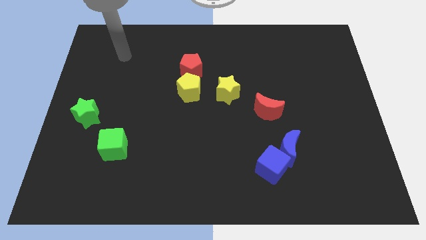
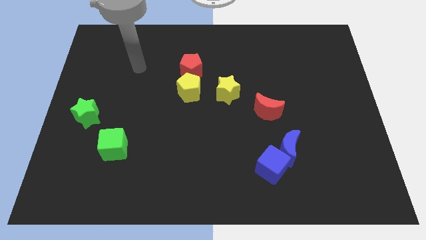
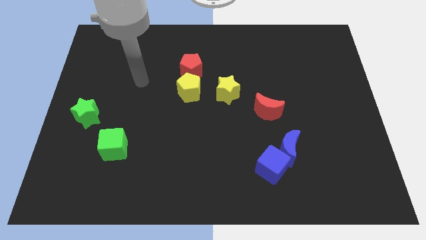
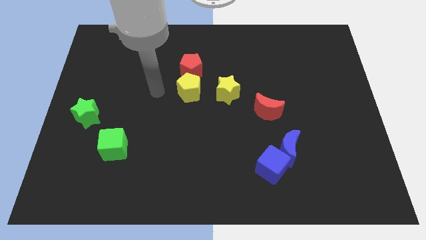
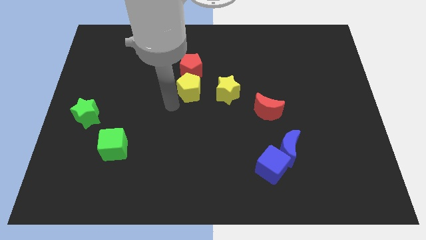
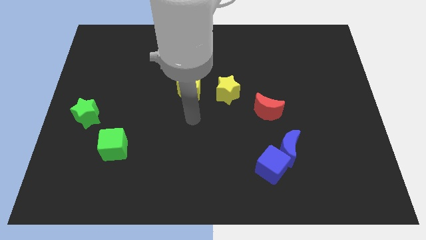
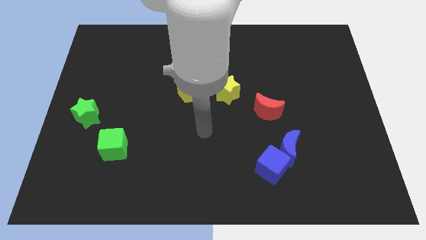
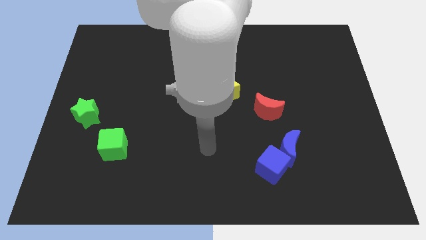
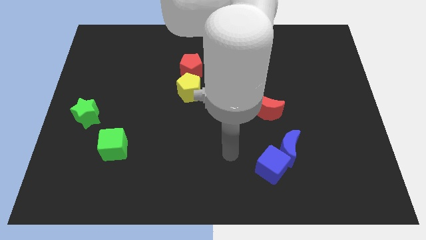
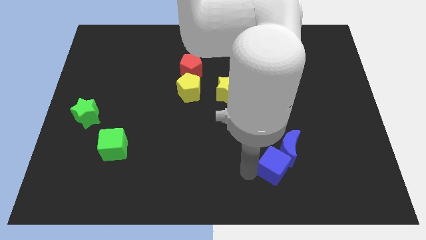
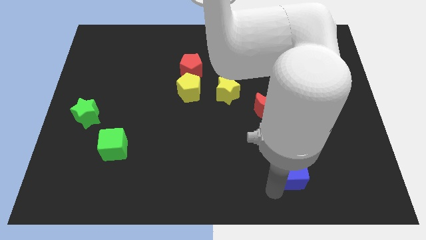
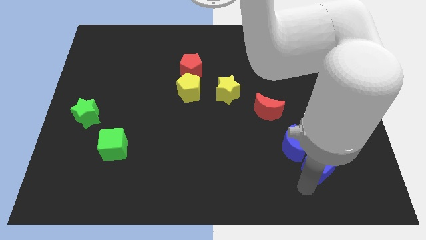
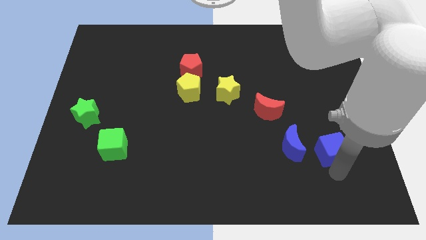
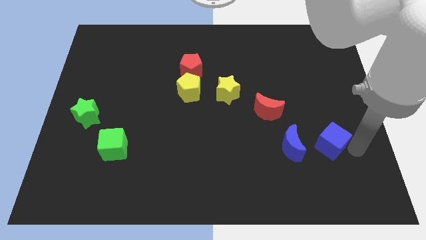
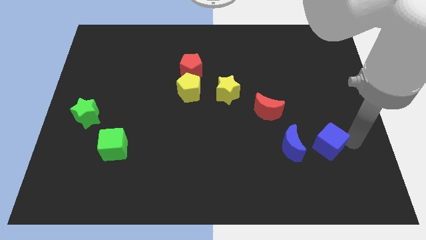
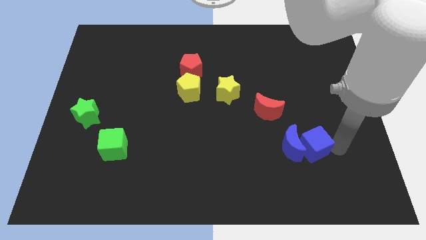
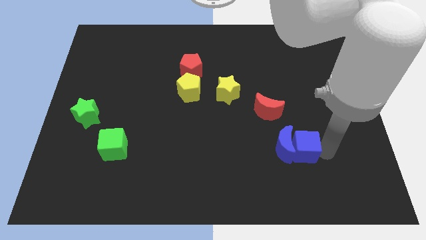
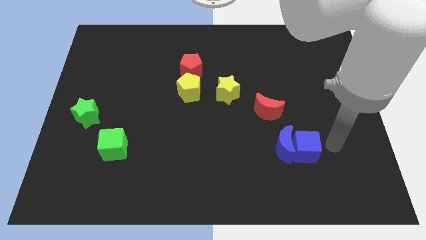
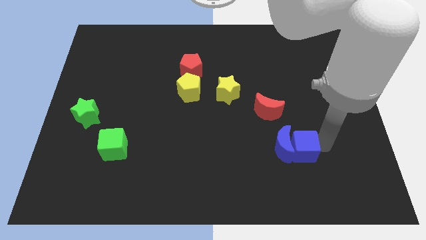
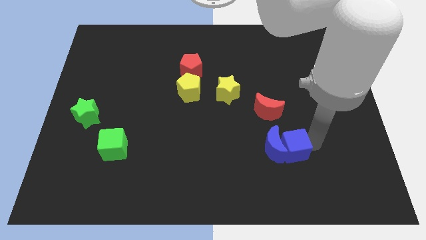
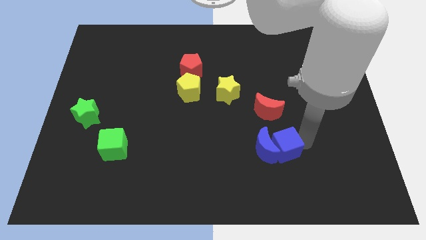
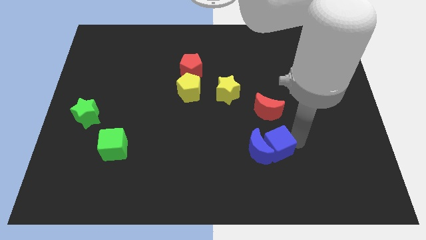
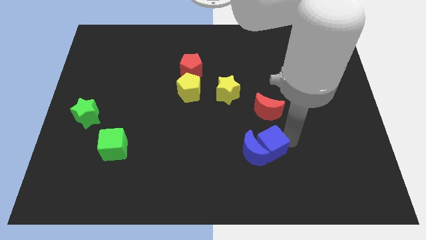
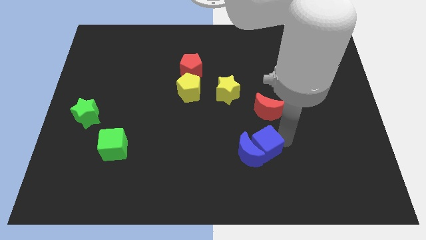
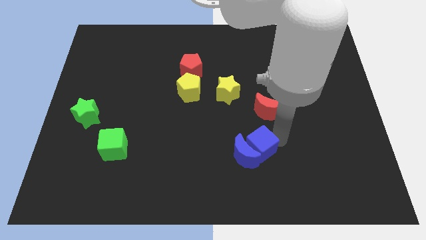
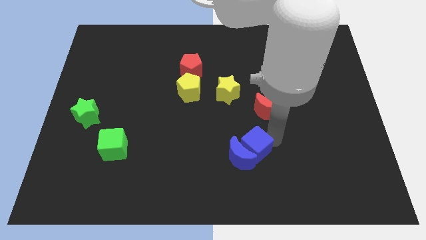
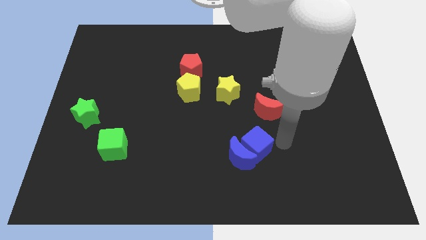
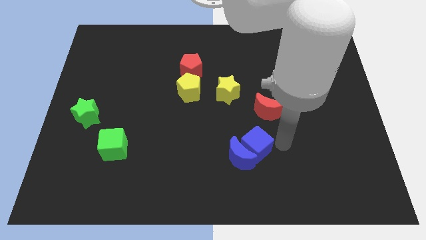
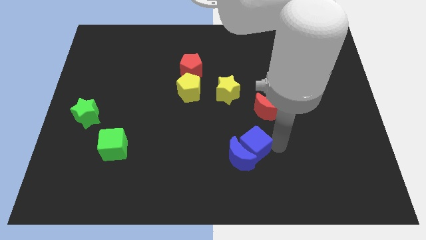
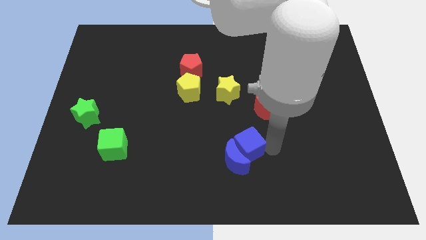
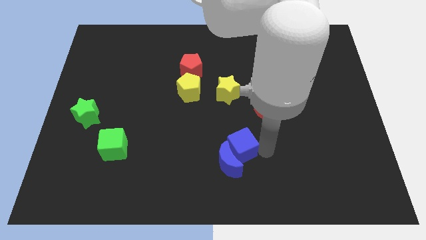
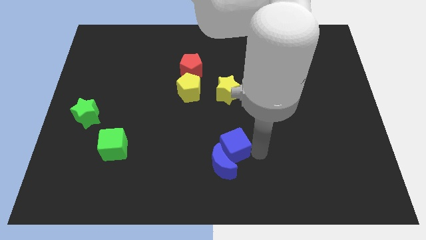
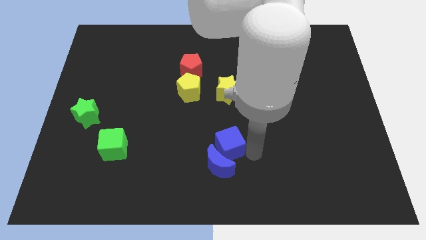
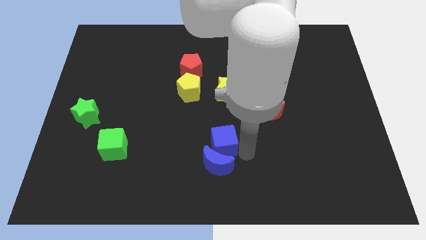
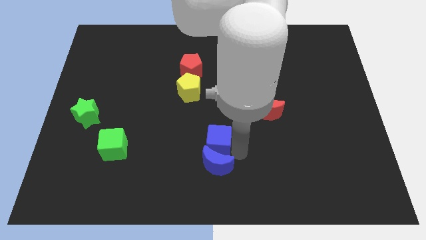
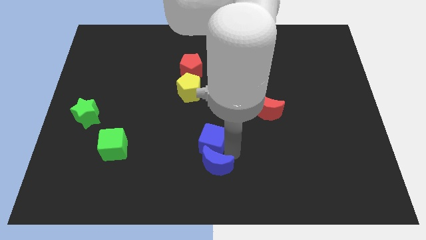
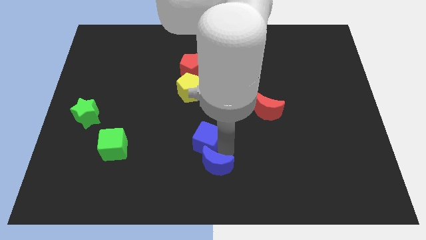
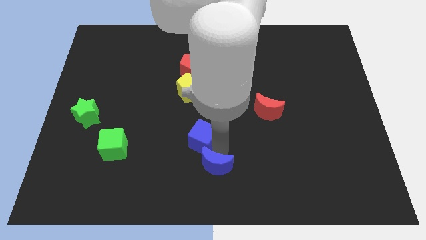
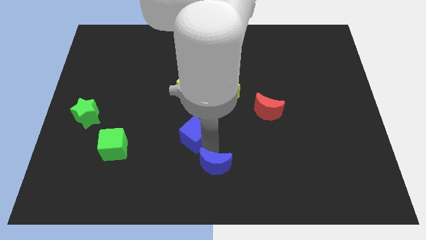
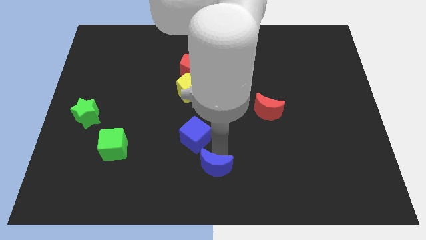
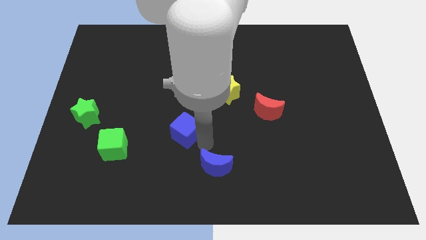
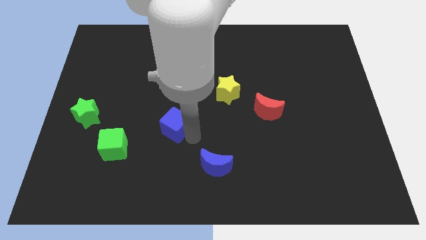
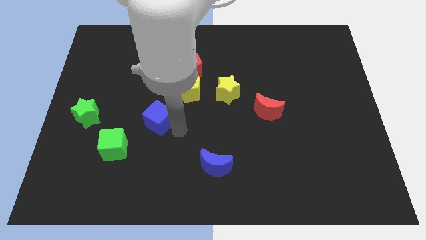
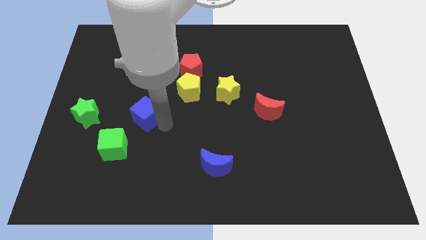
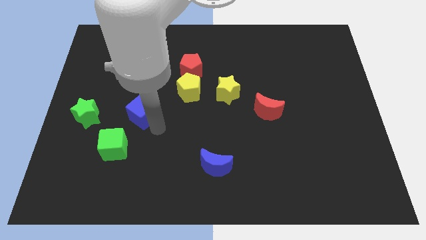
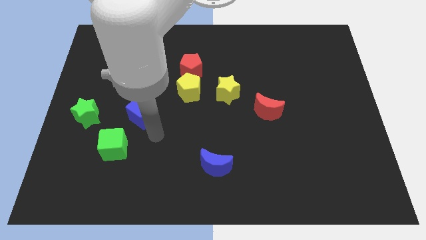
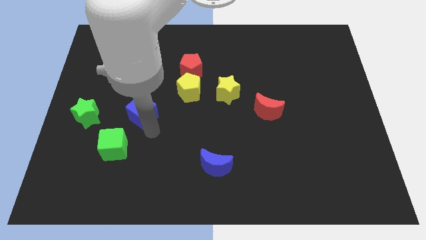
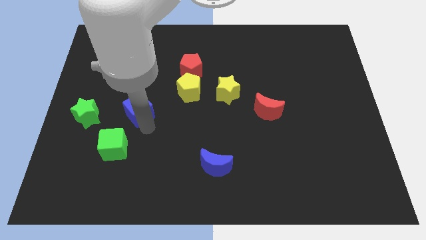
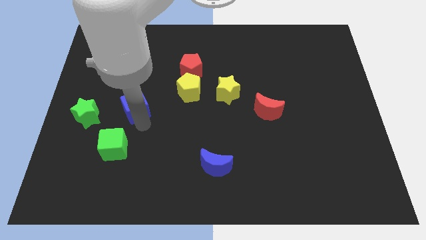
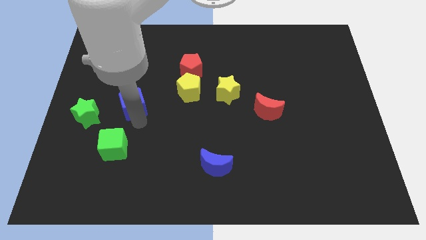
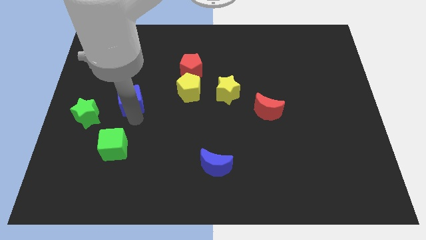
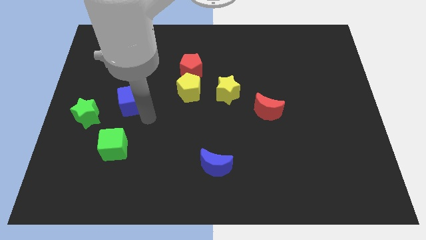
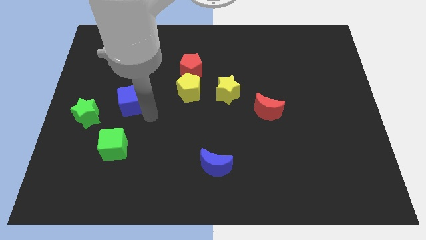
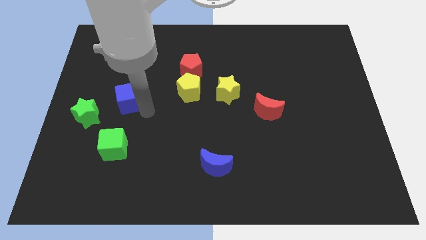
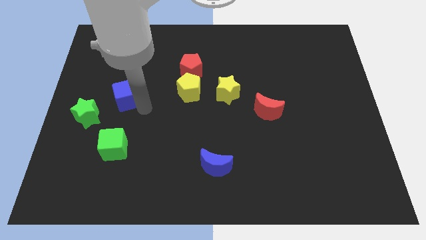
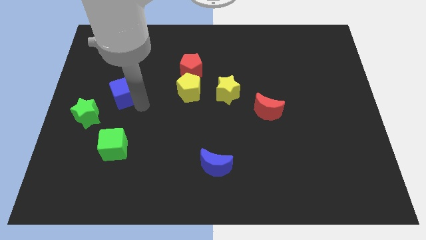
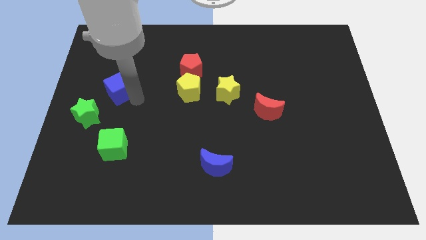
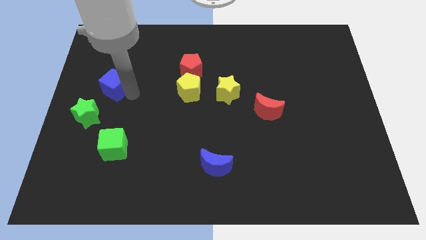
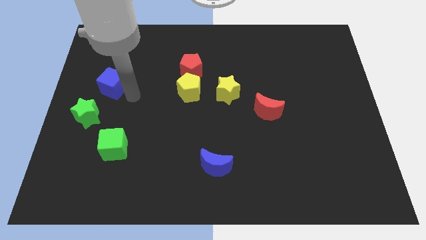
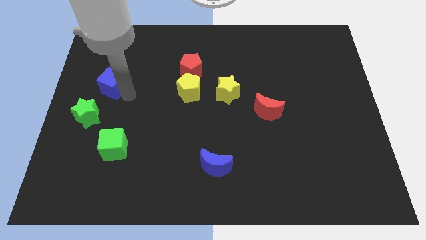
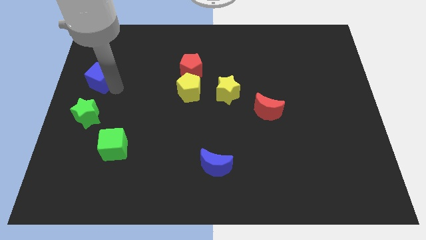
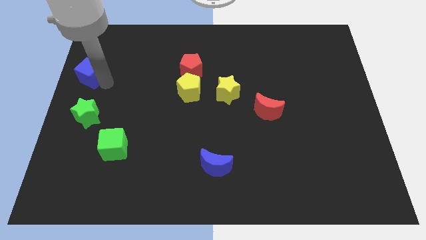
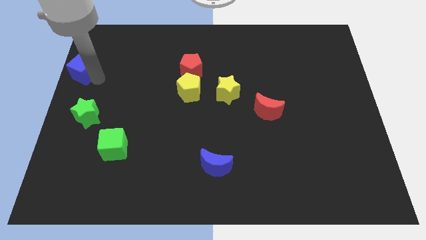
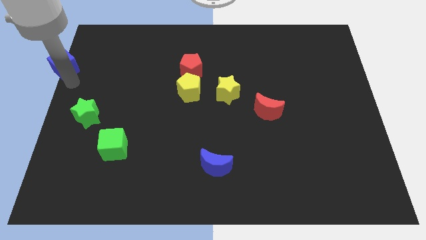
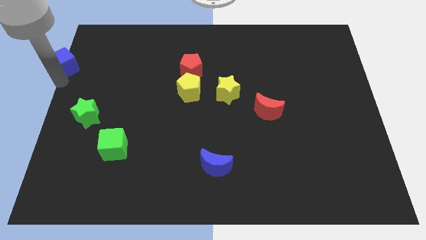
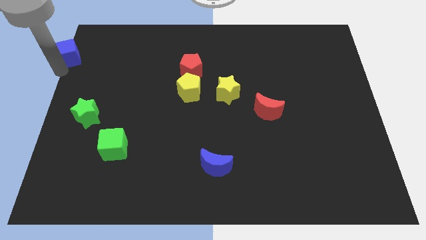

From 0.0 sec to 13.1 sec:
slide the blue cube to the upper left corner

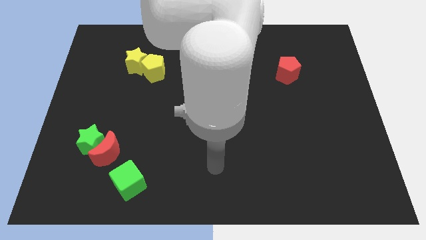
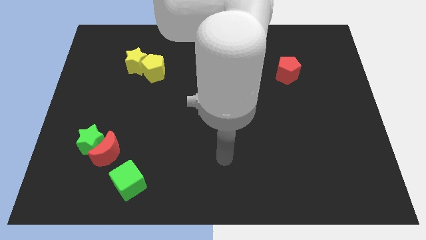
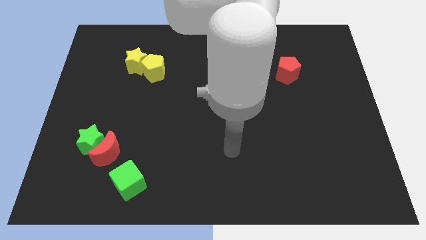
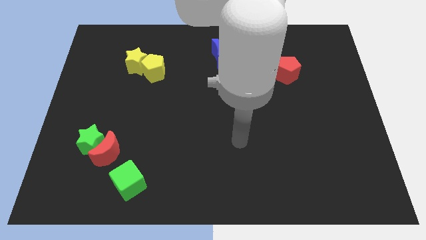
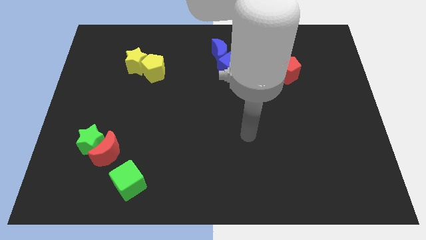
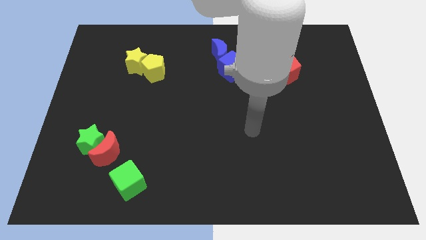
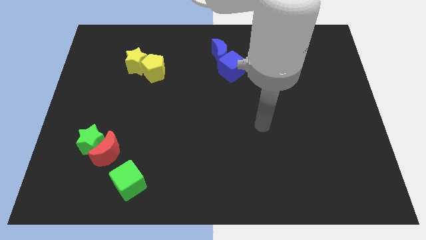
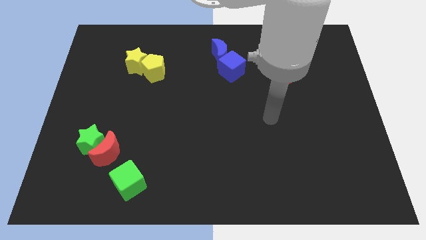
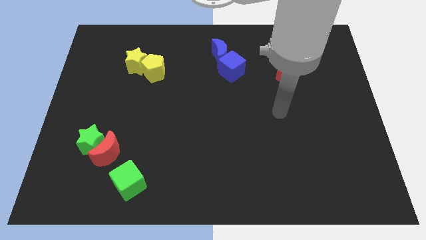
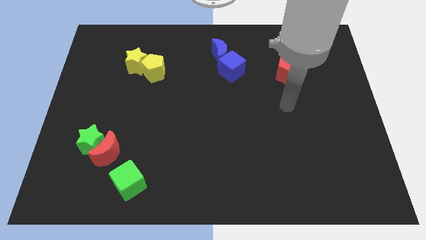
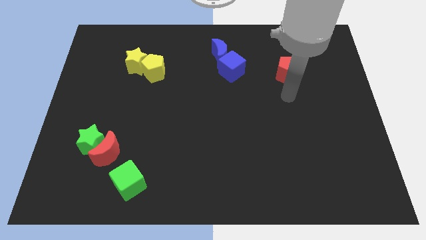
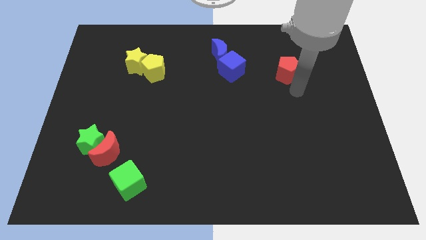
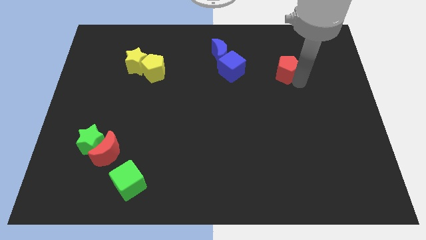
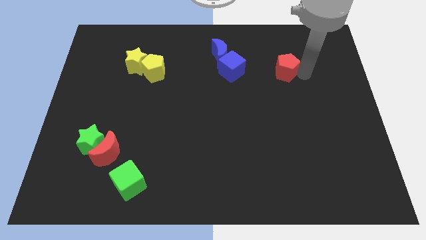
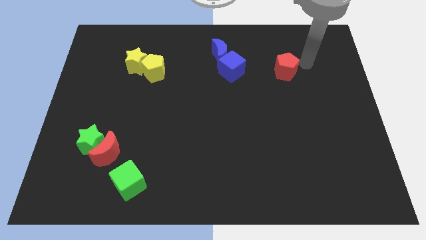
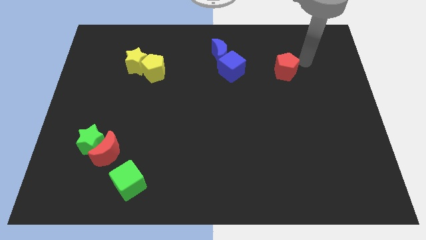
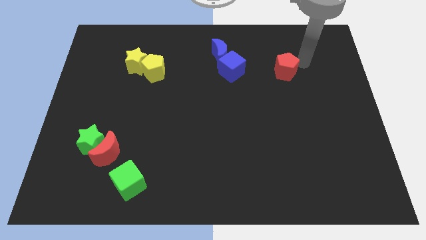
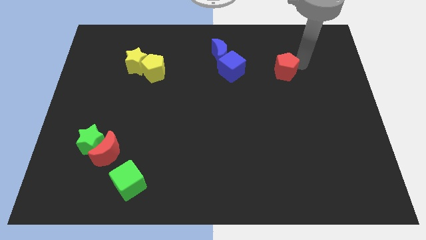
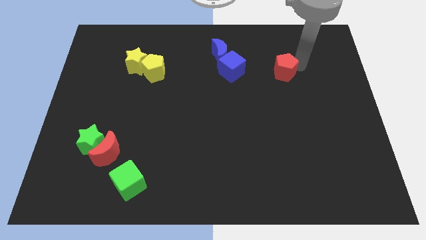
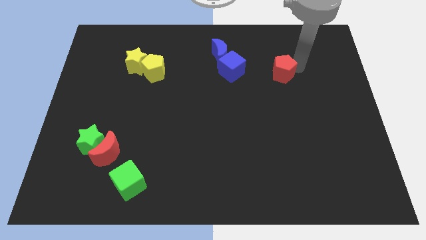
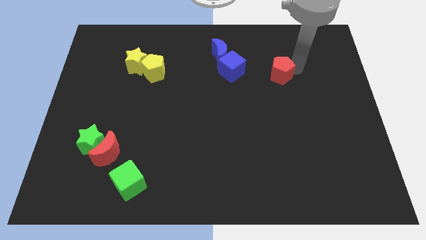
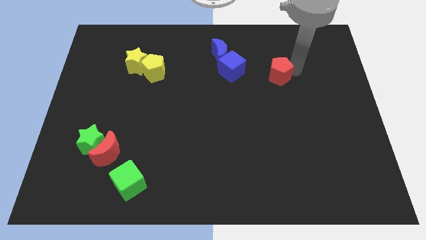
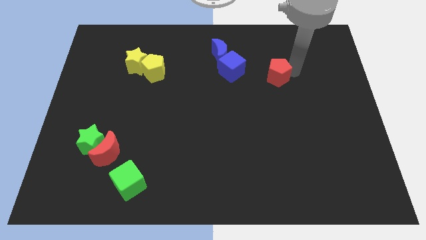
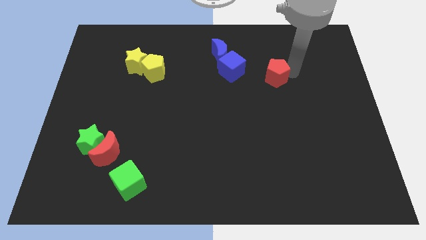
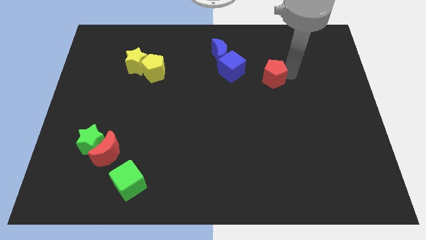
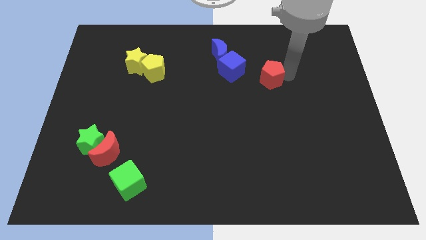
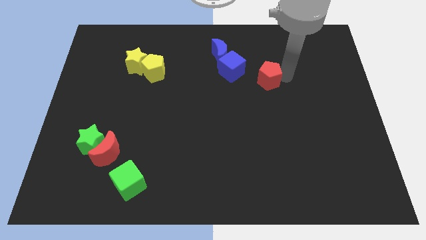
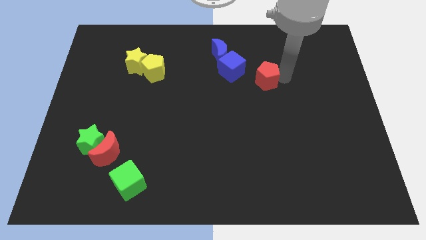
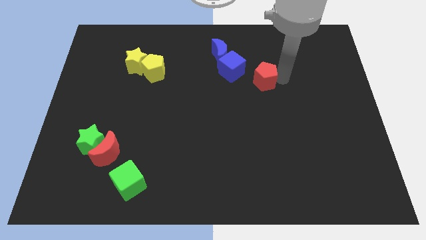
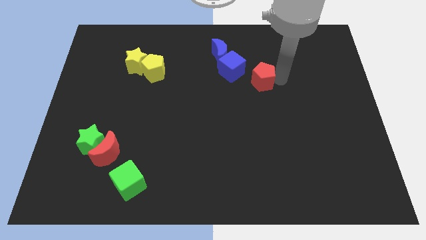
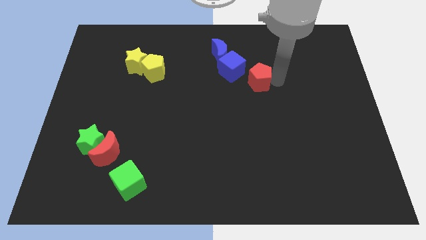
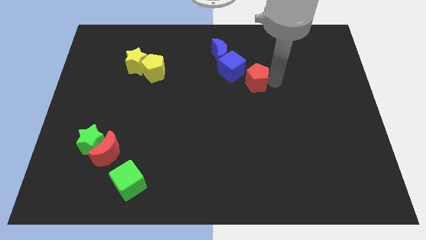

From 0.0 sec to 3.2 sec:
push the red pentagon to the middle
